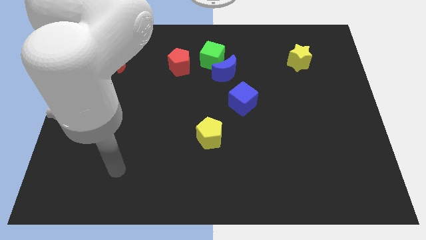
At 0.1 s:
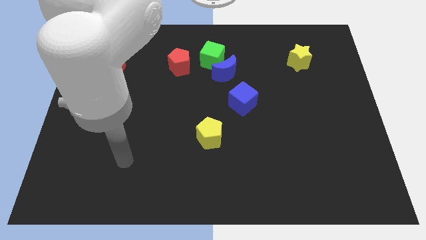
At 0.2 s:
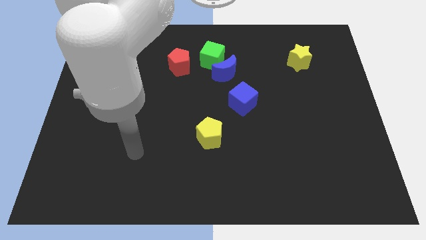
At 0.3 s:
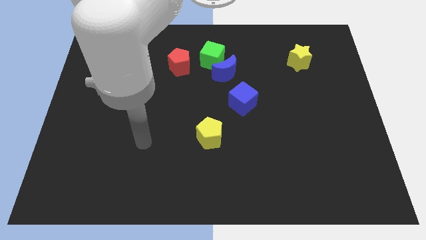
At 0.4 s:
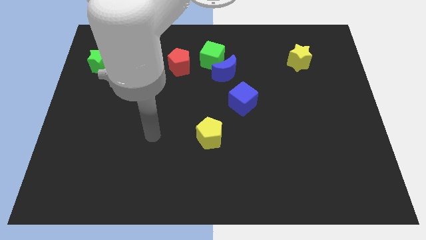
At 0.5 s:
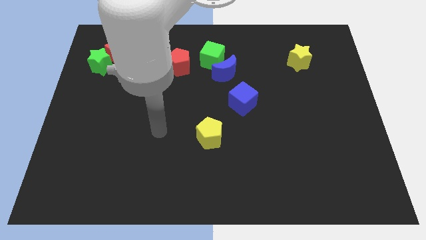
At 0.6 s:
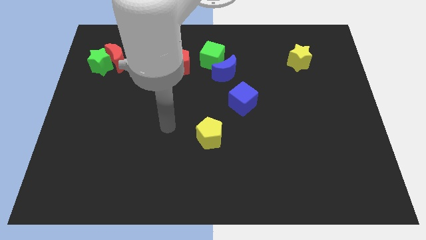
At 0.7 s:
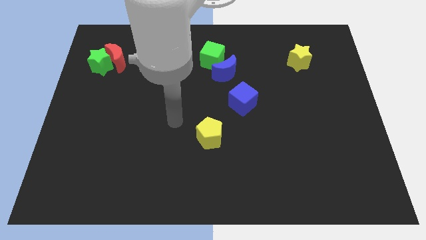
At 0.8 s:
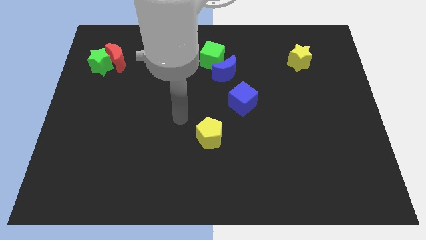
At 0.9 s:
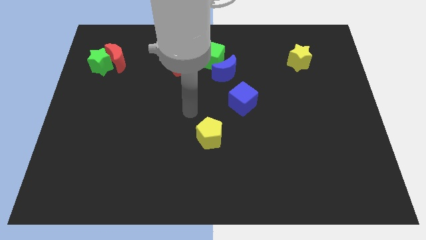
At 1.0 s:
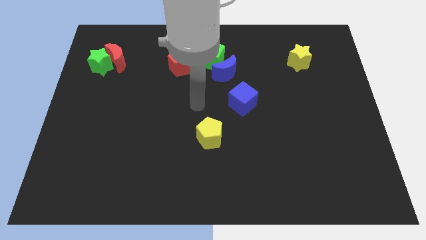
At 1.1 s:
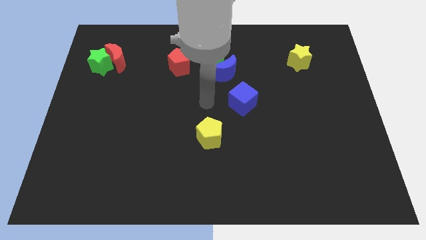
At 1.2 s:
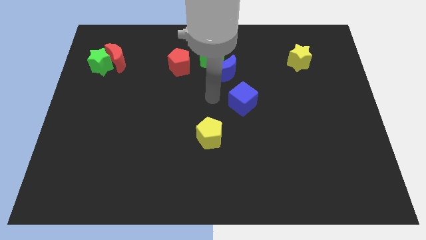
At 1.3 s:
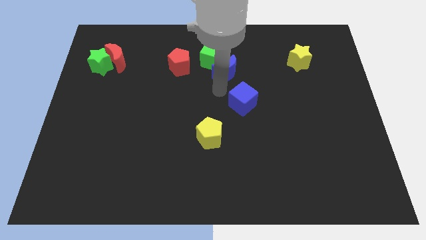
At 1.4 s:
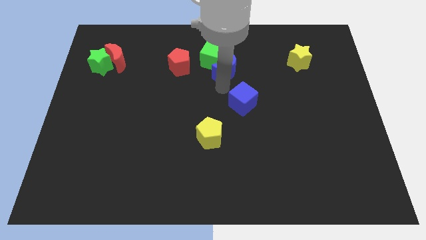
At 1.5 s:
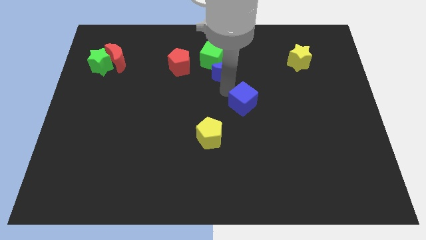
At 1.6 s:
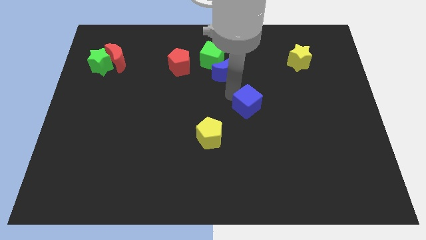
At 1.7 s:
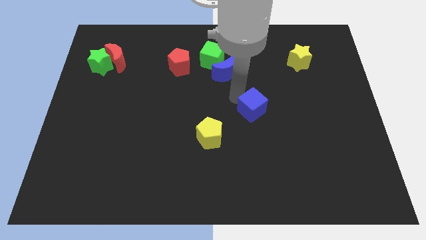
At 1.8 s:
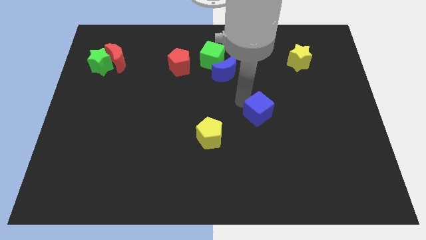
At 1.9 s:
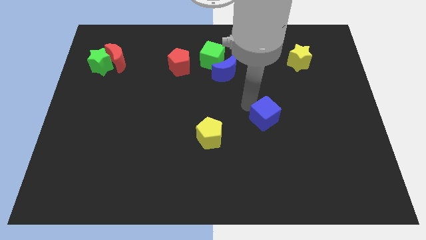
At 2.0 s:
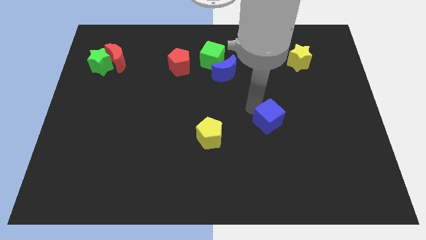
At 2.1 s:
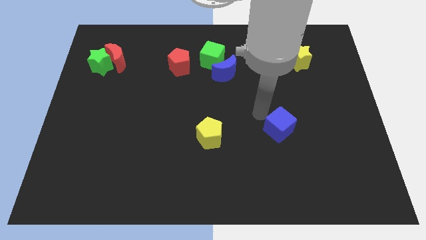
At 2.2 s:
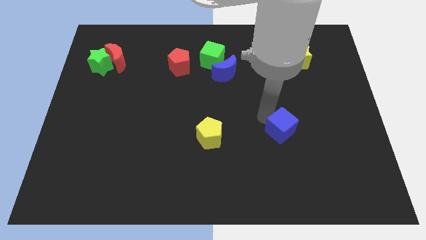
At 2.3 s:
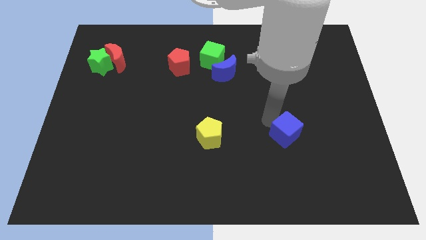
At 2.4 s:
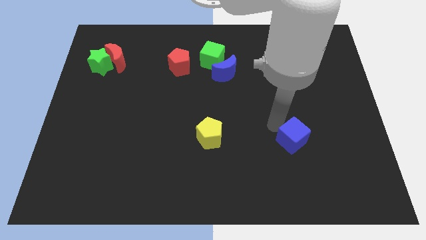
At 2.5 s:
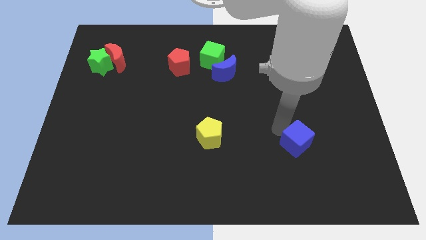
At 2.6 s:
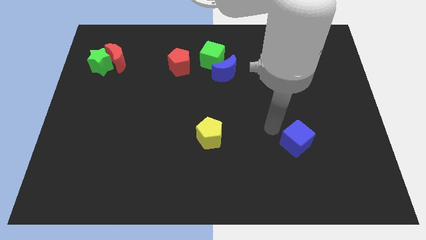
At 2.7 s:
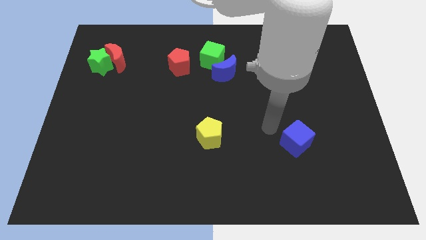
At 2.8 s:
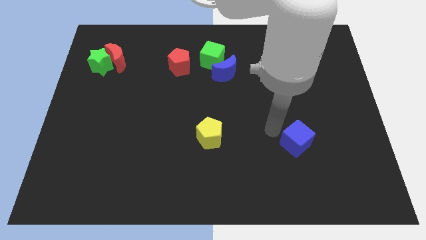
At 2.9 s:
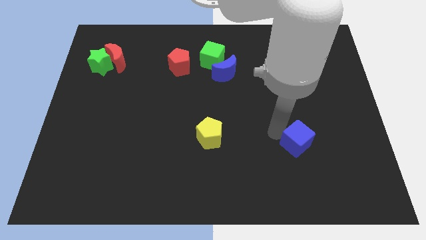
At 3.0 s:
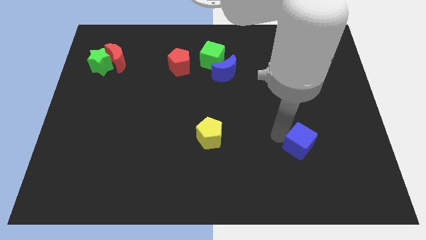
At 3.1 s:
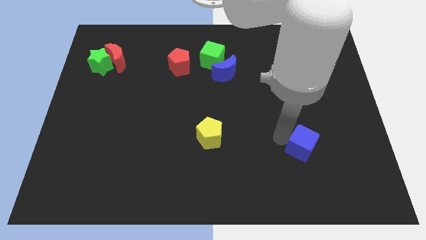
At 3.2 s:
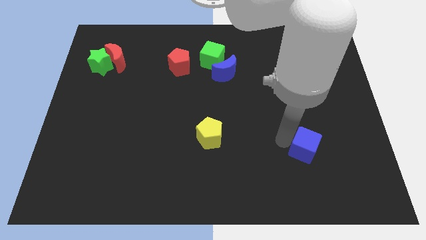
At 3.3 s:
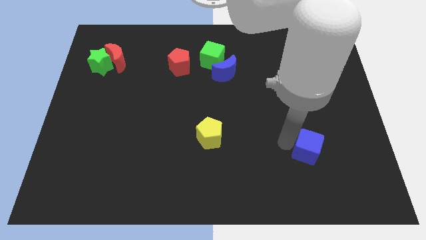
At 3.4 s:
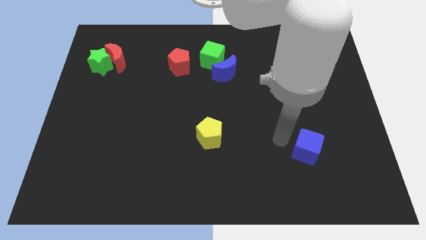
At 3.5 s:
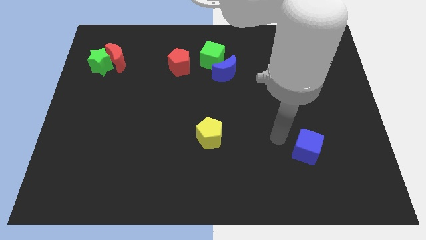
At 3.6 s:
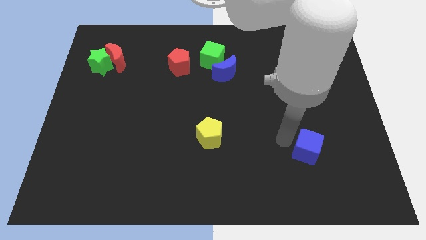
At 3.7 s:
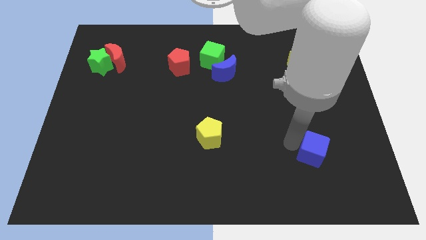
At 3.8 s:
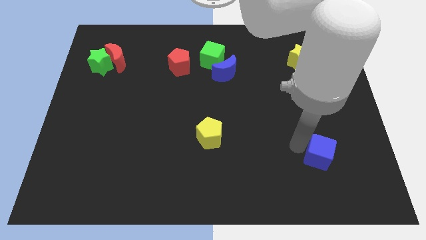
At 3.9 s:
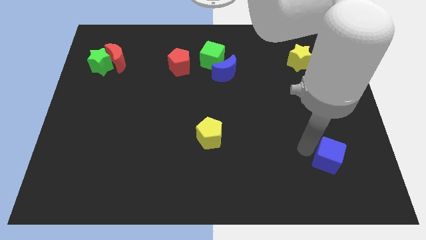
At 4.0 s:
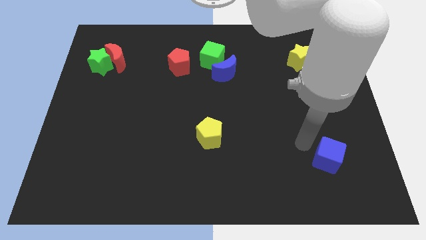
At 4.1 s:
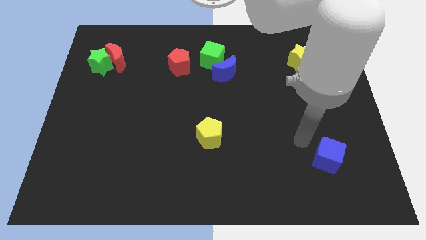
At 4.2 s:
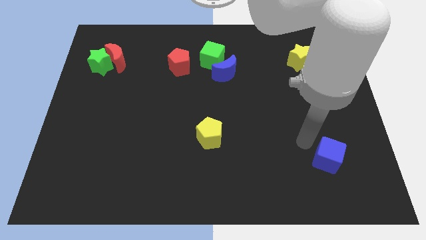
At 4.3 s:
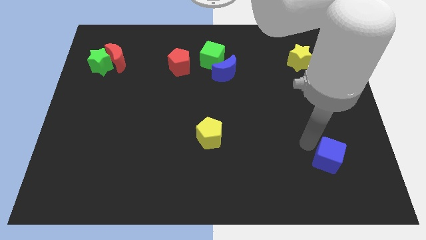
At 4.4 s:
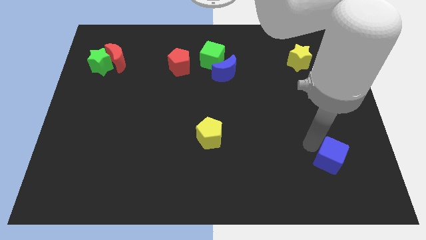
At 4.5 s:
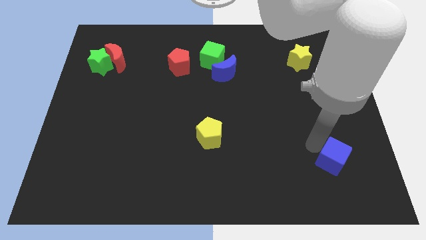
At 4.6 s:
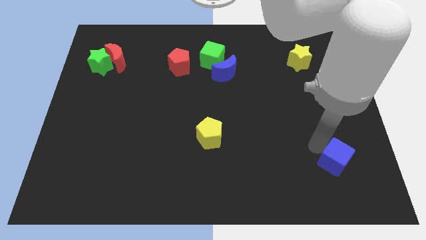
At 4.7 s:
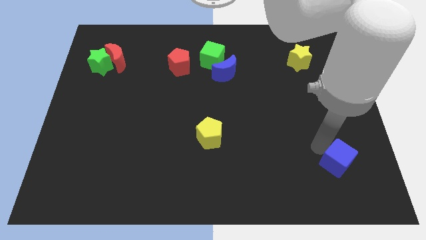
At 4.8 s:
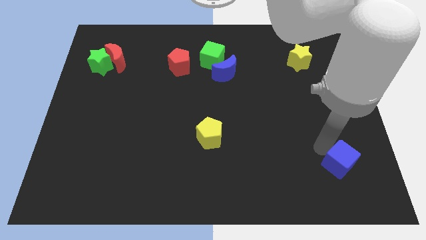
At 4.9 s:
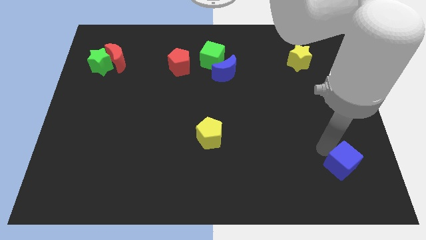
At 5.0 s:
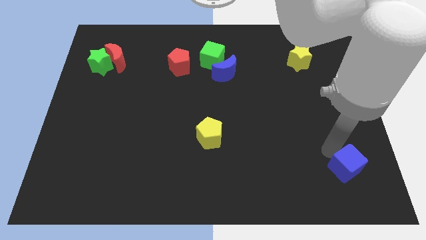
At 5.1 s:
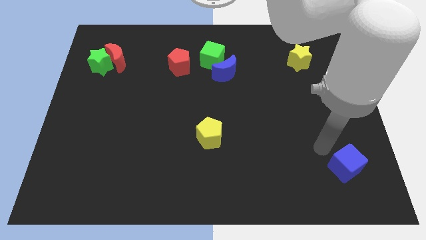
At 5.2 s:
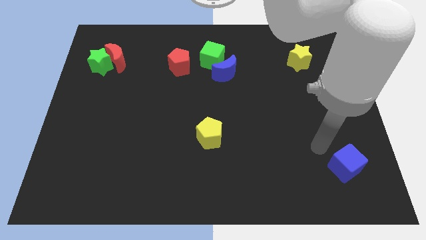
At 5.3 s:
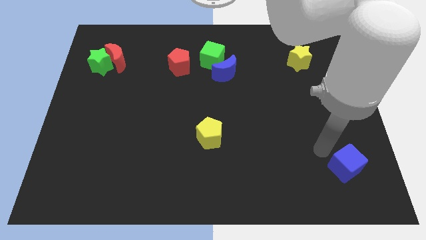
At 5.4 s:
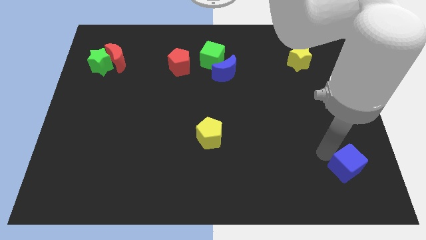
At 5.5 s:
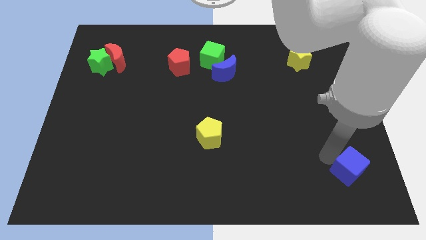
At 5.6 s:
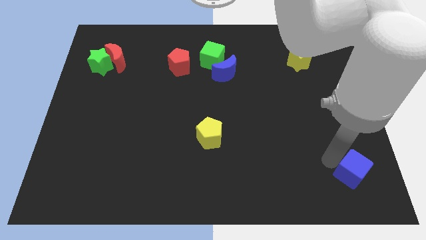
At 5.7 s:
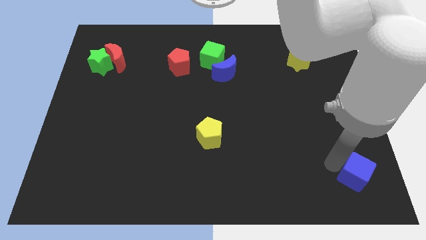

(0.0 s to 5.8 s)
slide the blue cube to the bottom right
